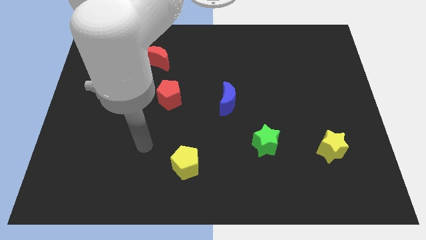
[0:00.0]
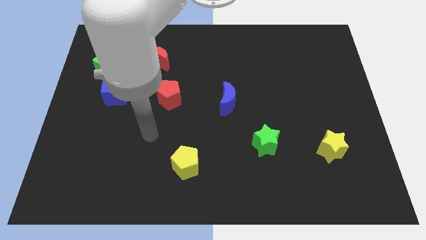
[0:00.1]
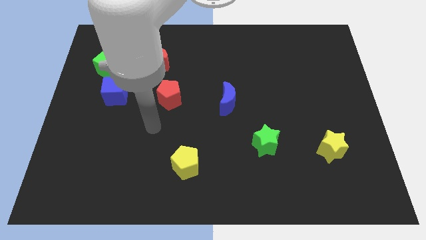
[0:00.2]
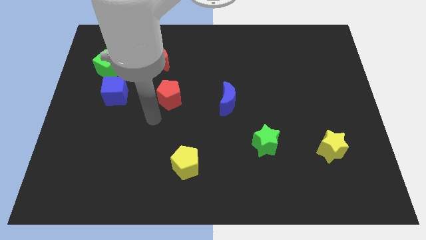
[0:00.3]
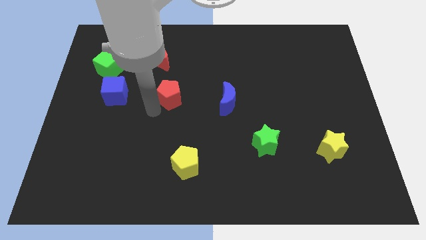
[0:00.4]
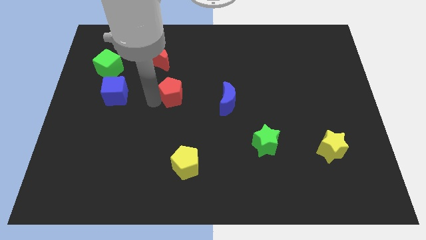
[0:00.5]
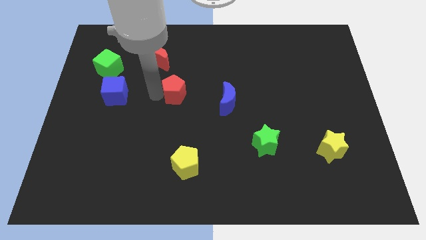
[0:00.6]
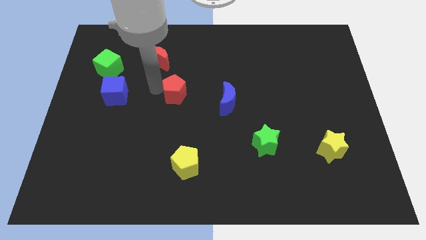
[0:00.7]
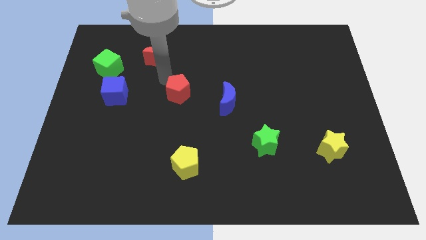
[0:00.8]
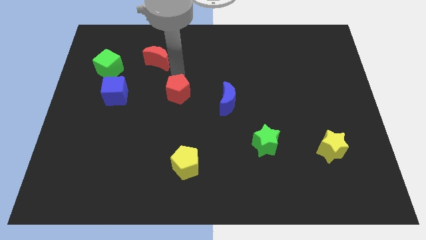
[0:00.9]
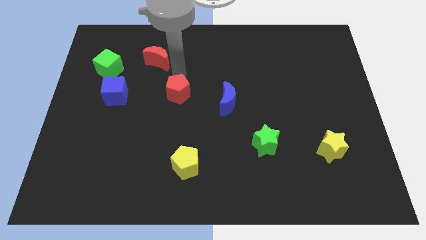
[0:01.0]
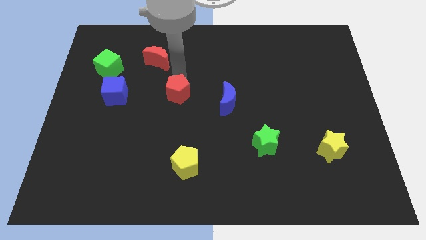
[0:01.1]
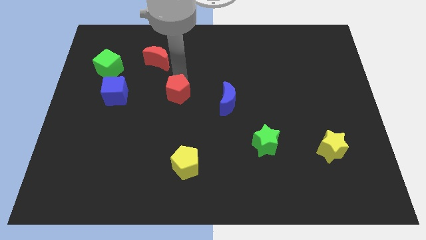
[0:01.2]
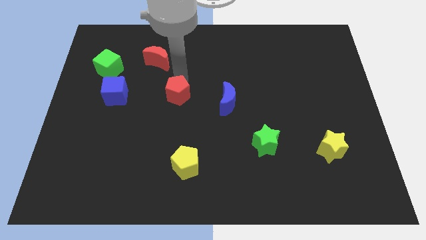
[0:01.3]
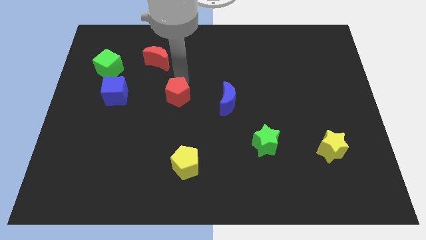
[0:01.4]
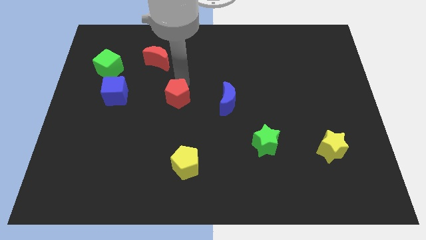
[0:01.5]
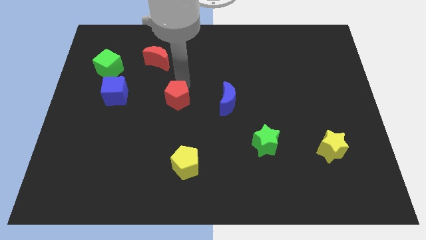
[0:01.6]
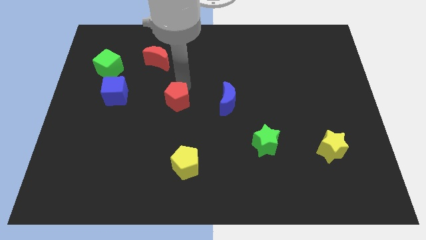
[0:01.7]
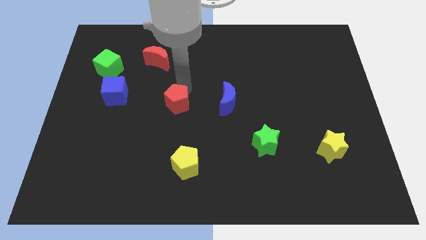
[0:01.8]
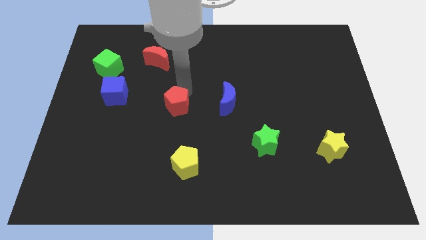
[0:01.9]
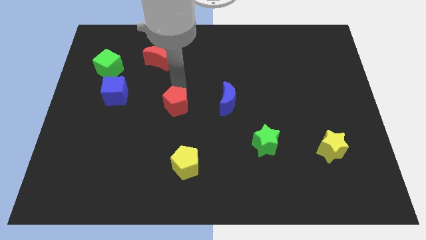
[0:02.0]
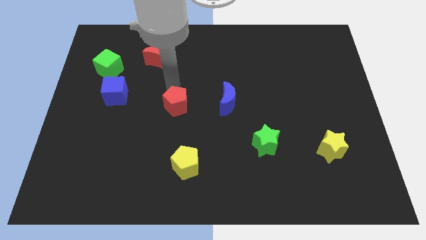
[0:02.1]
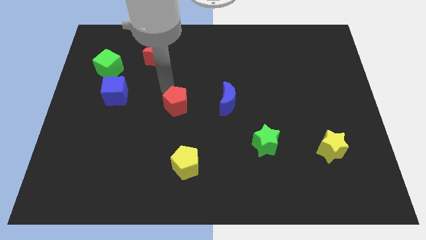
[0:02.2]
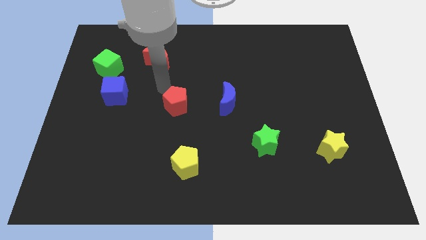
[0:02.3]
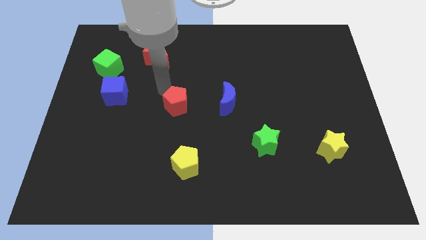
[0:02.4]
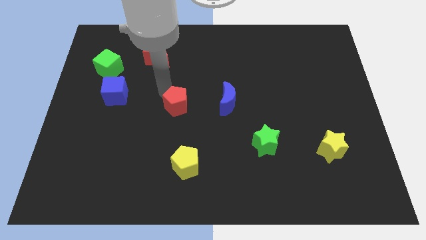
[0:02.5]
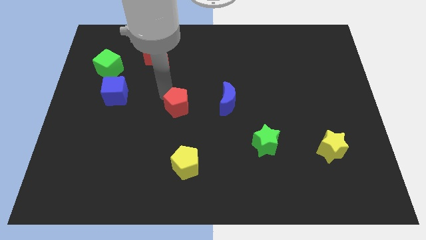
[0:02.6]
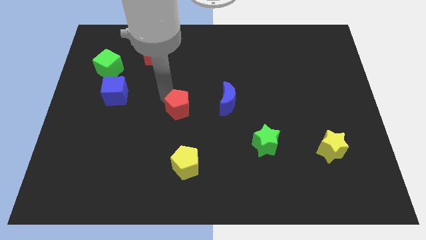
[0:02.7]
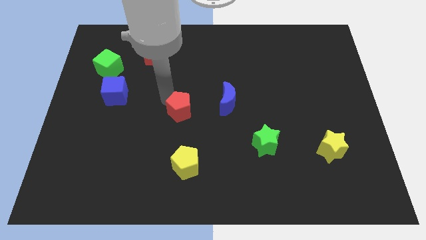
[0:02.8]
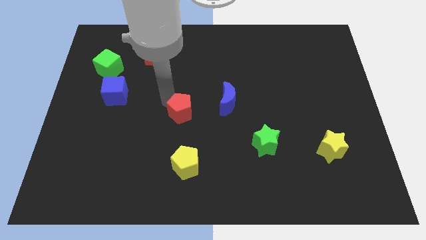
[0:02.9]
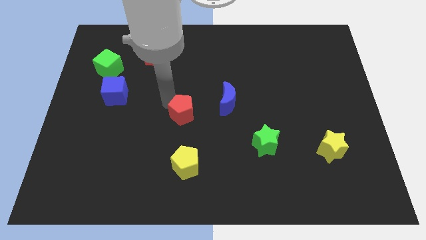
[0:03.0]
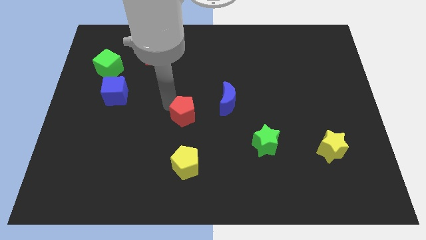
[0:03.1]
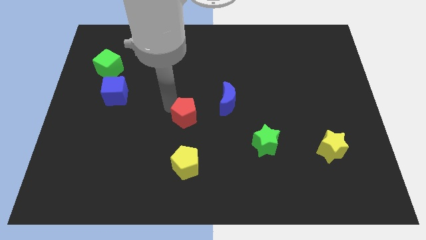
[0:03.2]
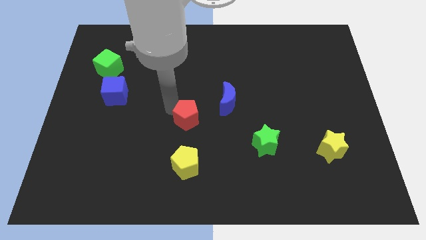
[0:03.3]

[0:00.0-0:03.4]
move the red pentagon a bit diagonally downwards and right

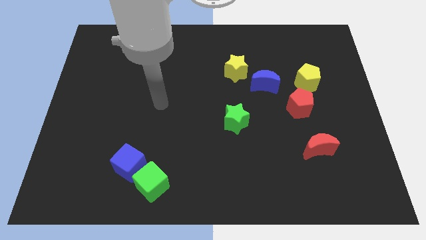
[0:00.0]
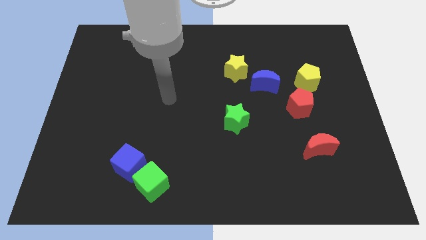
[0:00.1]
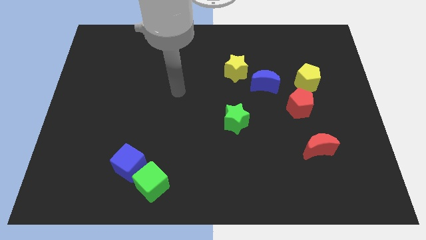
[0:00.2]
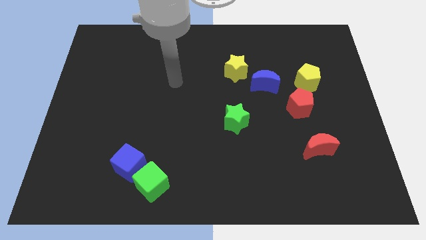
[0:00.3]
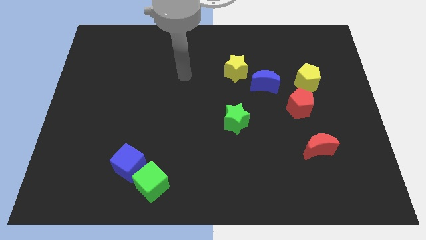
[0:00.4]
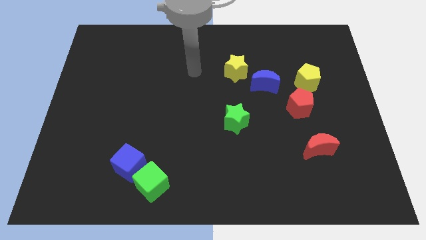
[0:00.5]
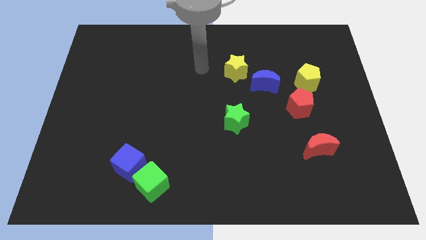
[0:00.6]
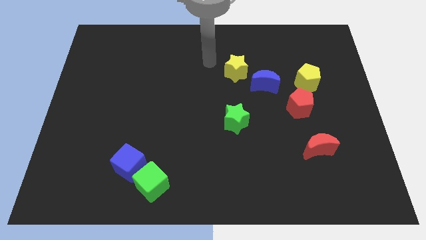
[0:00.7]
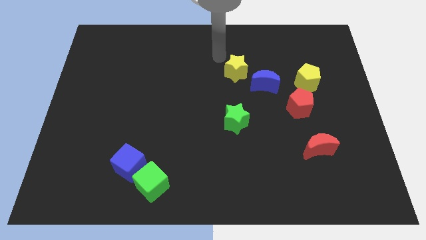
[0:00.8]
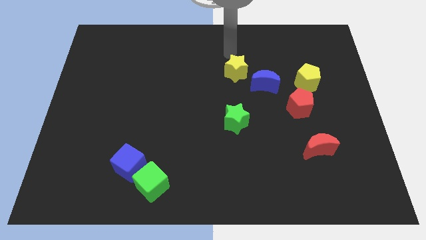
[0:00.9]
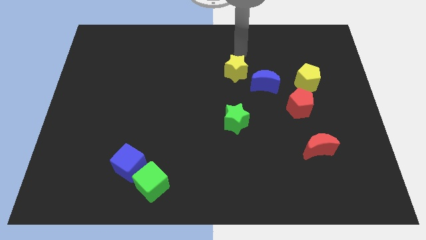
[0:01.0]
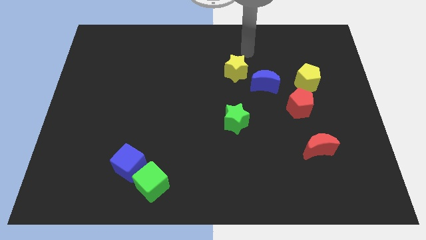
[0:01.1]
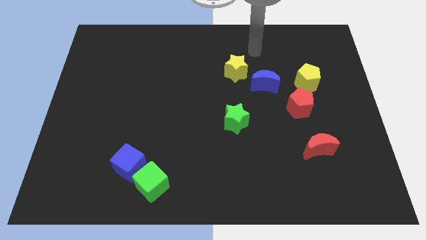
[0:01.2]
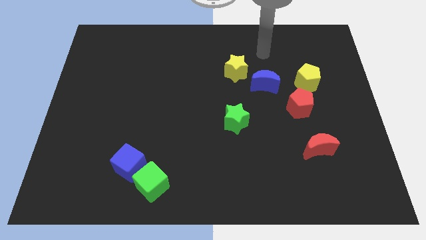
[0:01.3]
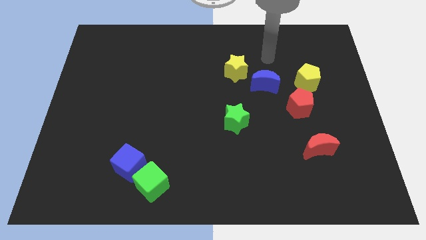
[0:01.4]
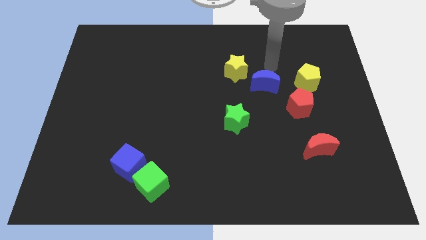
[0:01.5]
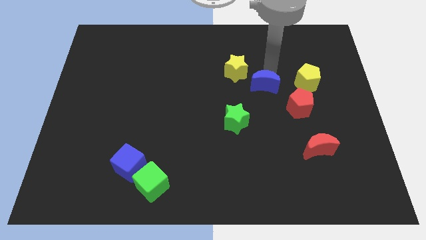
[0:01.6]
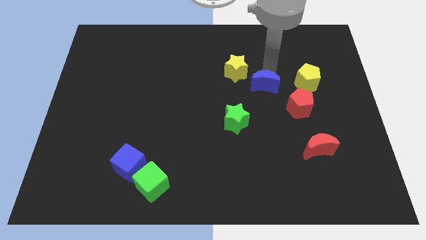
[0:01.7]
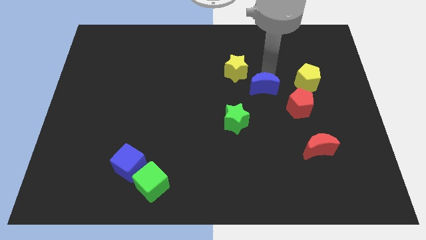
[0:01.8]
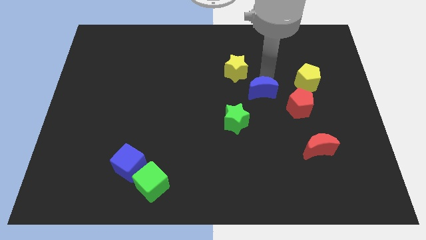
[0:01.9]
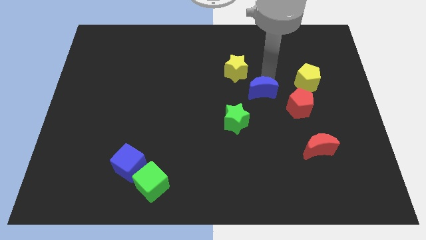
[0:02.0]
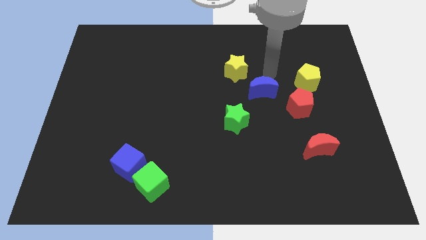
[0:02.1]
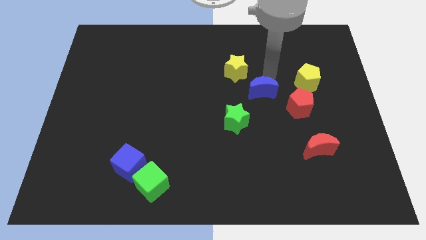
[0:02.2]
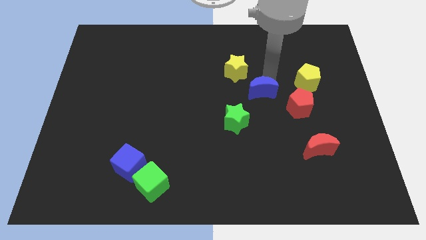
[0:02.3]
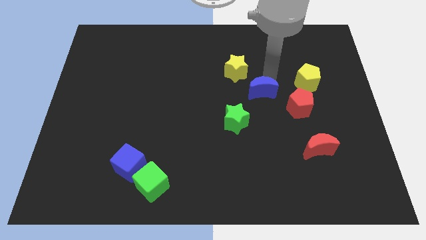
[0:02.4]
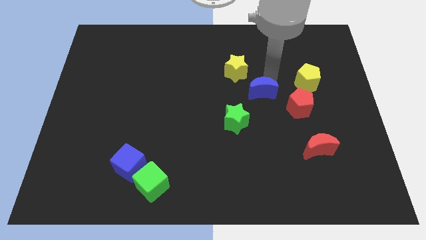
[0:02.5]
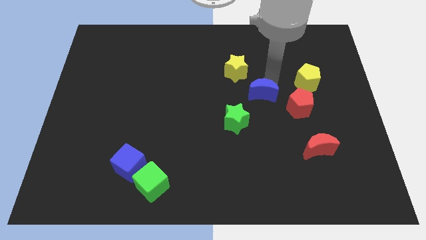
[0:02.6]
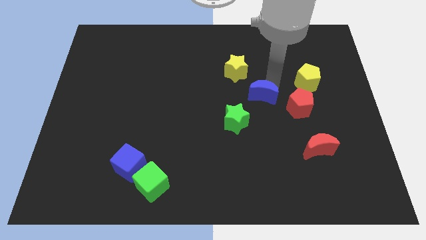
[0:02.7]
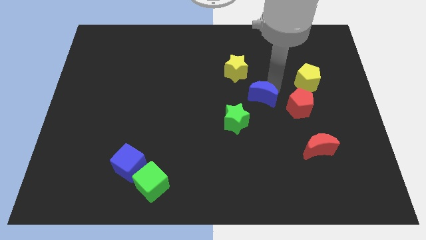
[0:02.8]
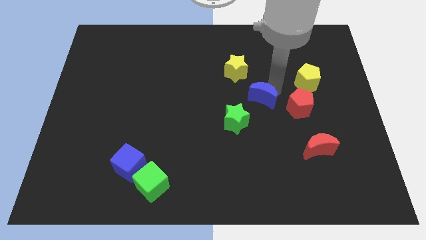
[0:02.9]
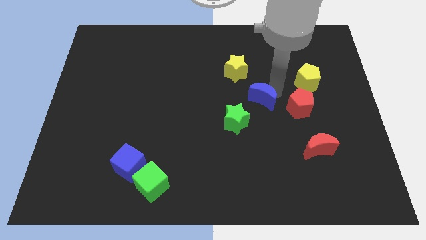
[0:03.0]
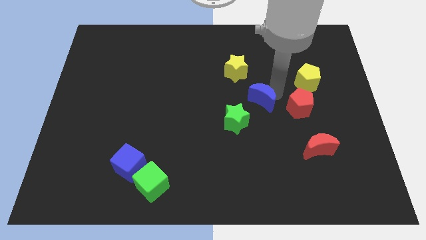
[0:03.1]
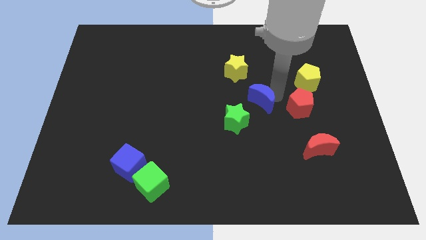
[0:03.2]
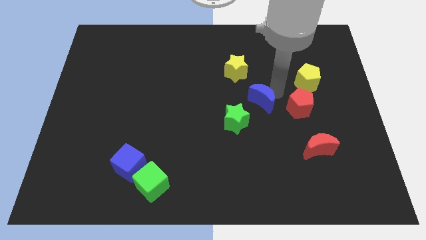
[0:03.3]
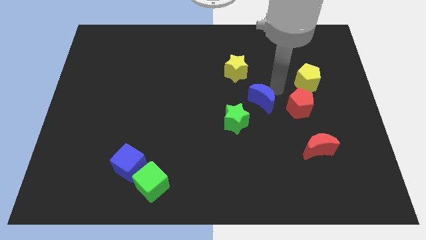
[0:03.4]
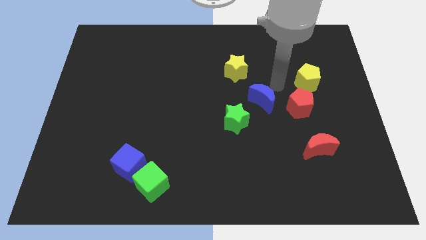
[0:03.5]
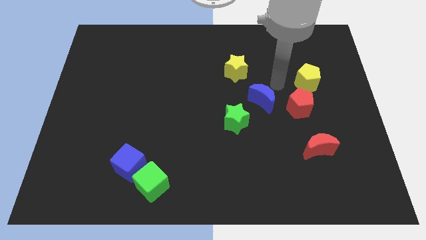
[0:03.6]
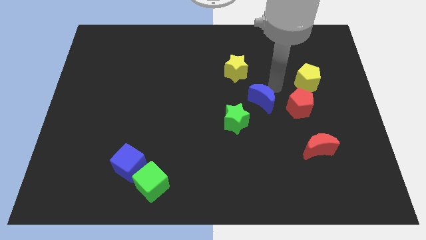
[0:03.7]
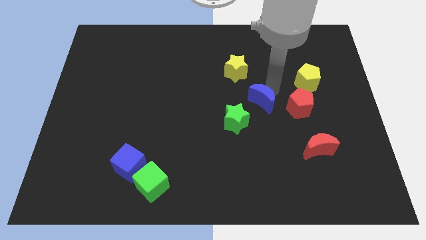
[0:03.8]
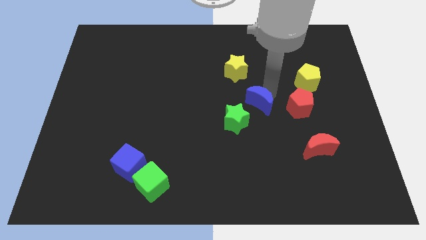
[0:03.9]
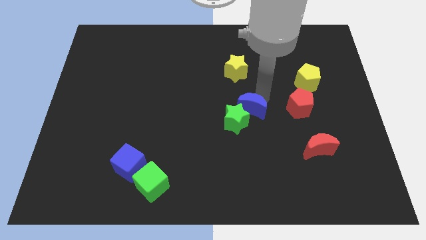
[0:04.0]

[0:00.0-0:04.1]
move the blue moon downwards a little bit

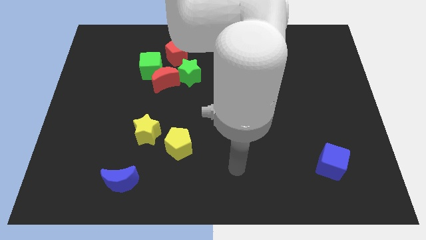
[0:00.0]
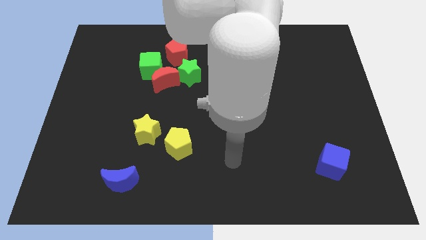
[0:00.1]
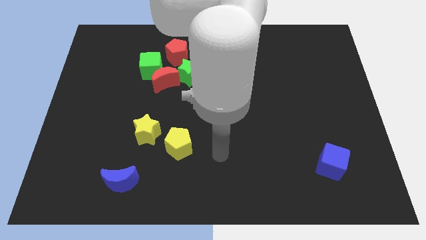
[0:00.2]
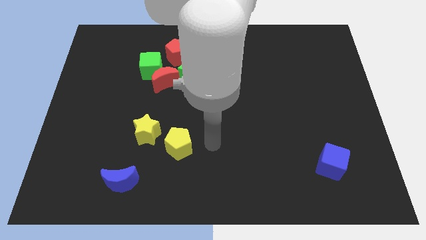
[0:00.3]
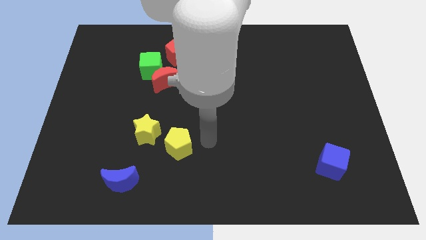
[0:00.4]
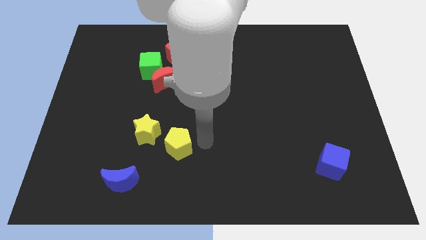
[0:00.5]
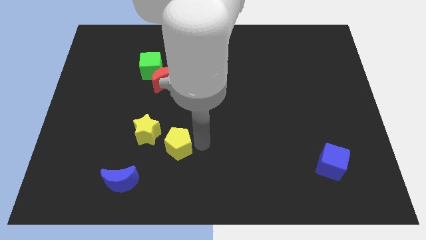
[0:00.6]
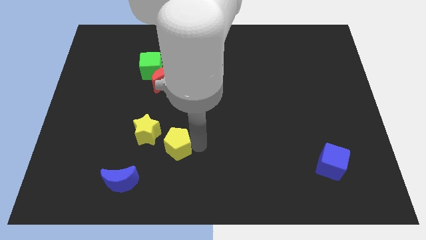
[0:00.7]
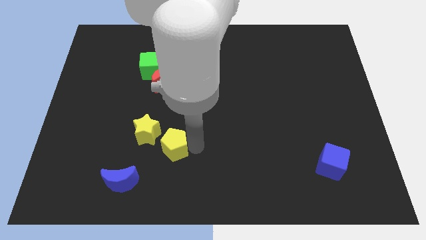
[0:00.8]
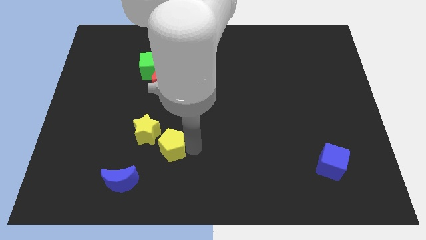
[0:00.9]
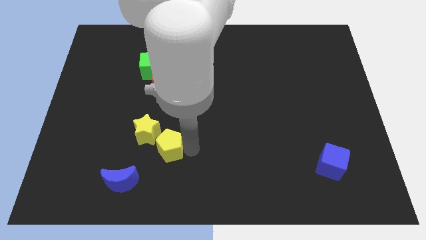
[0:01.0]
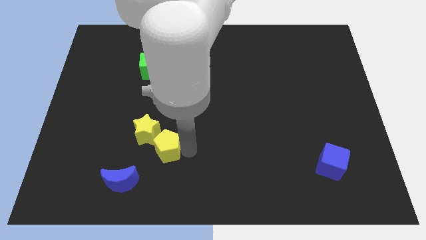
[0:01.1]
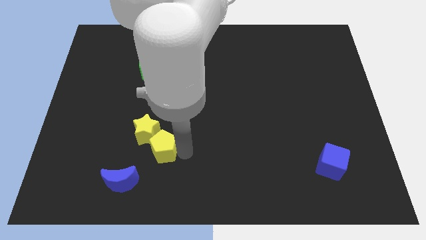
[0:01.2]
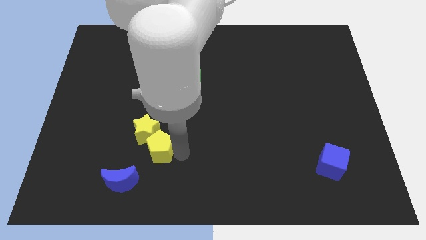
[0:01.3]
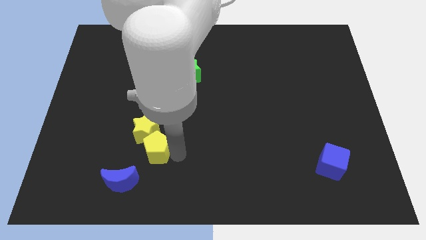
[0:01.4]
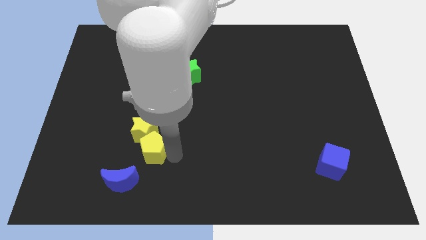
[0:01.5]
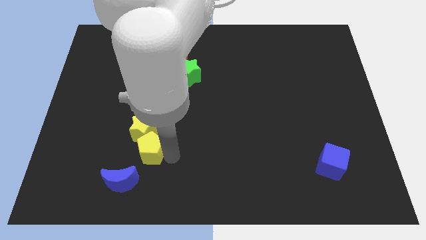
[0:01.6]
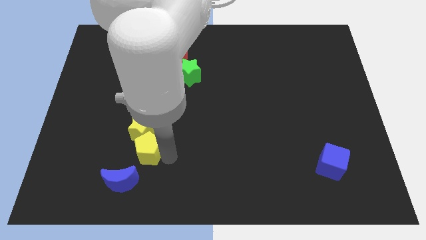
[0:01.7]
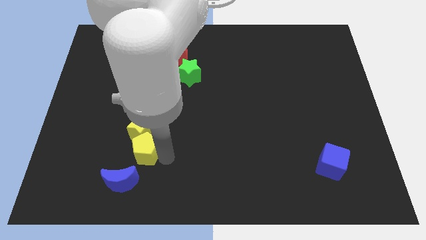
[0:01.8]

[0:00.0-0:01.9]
move the yellow pentagon somewhat to the left
